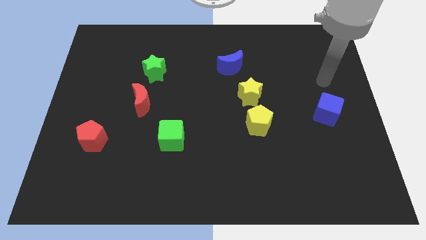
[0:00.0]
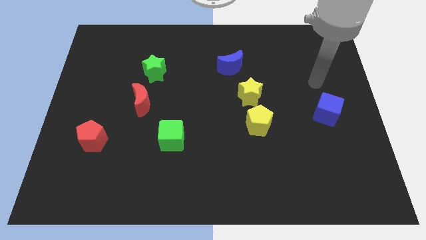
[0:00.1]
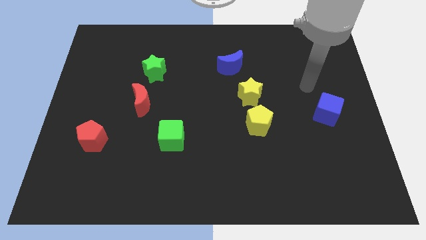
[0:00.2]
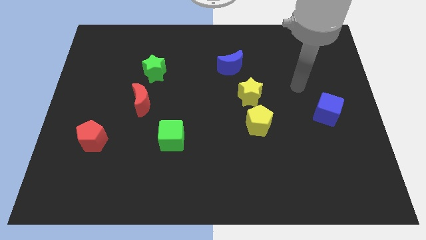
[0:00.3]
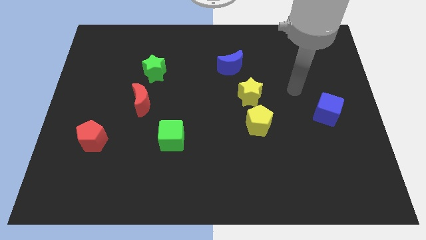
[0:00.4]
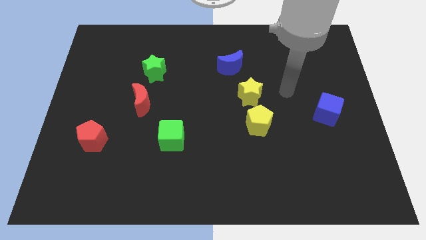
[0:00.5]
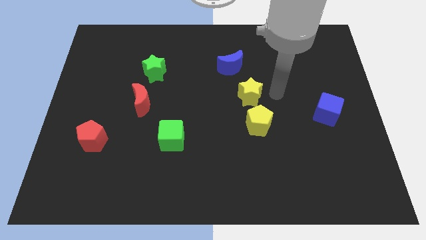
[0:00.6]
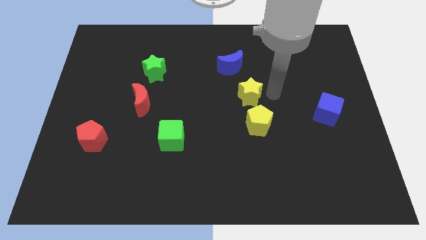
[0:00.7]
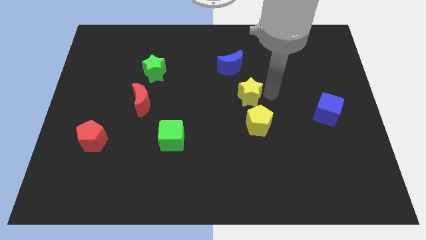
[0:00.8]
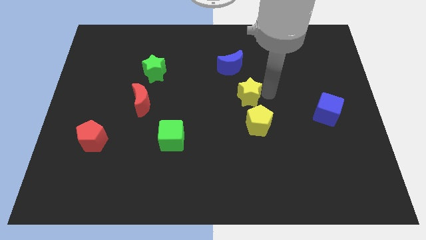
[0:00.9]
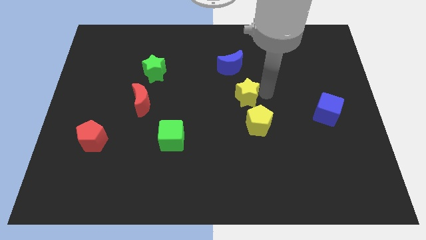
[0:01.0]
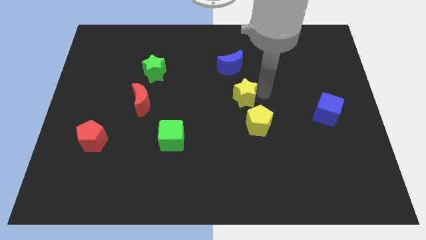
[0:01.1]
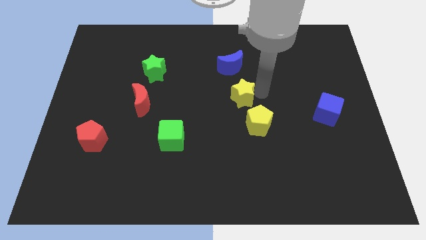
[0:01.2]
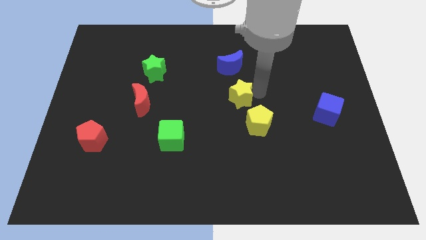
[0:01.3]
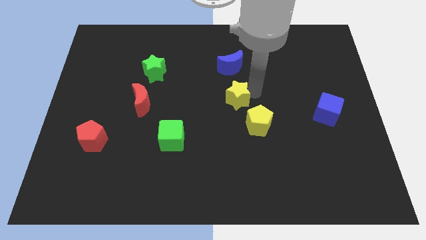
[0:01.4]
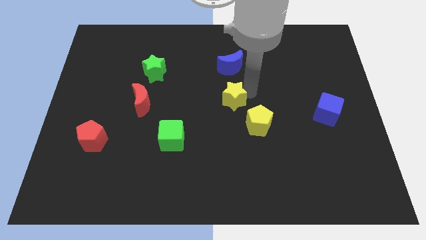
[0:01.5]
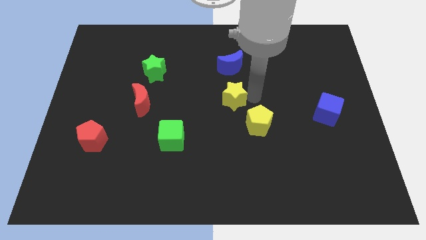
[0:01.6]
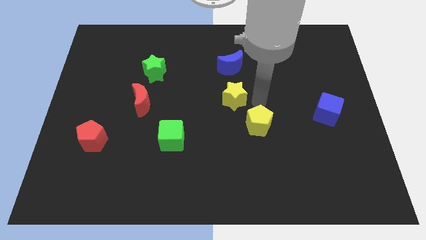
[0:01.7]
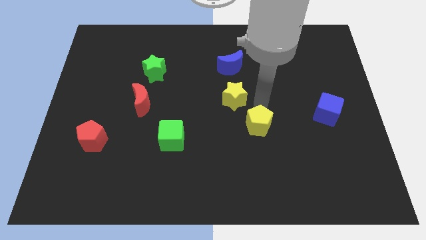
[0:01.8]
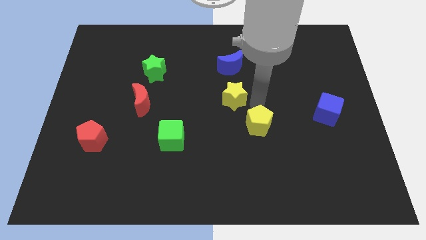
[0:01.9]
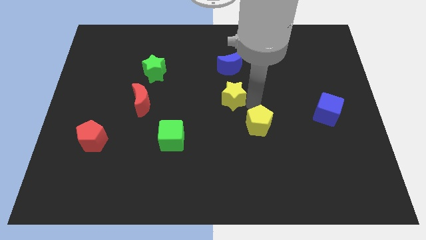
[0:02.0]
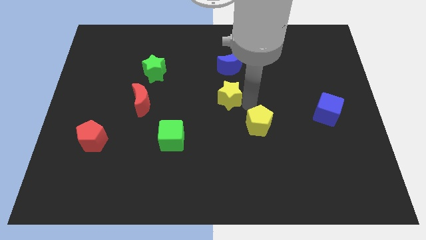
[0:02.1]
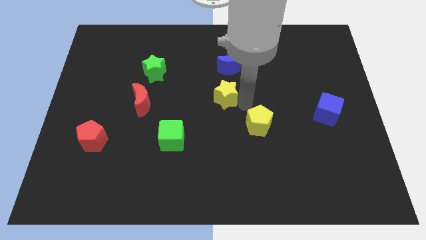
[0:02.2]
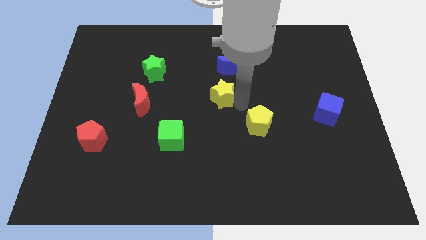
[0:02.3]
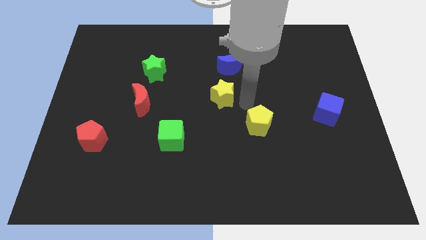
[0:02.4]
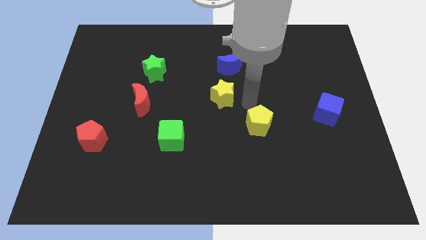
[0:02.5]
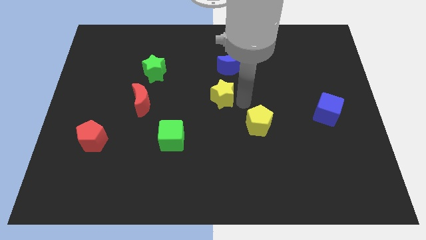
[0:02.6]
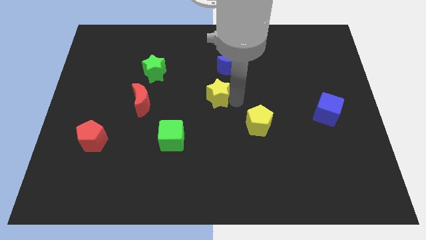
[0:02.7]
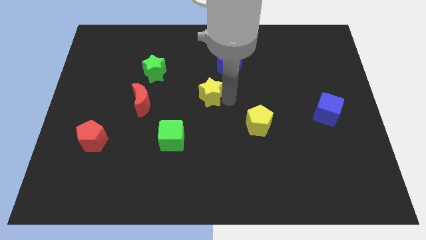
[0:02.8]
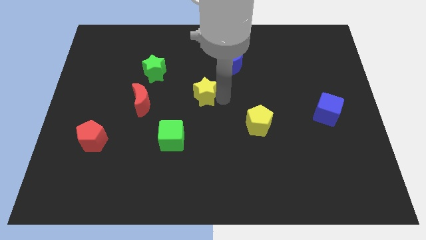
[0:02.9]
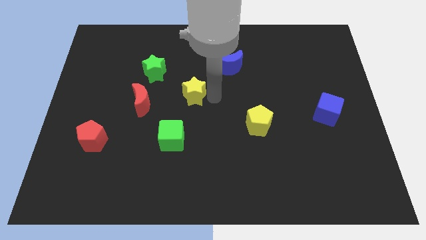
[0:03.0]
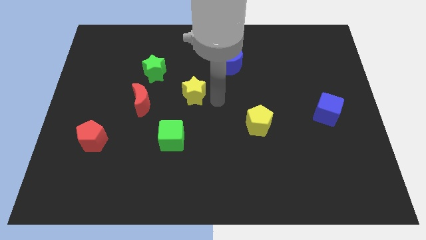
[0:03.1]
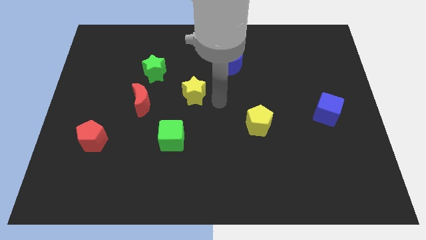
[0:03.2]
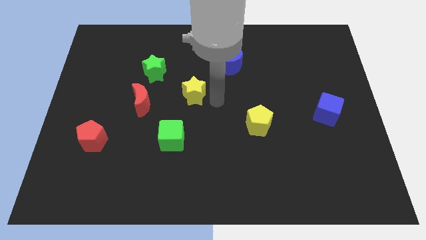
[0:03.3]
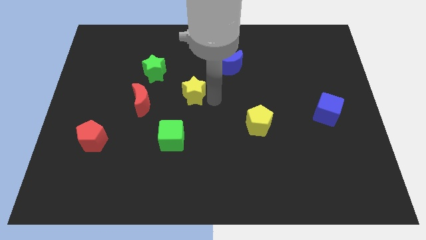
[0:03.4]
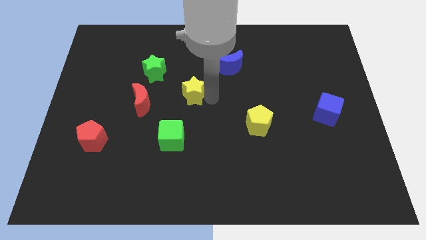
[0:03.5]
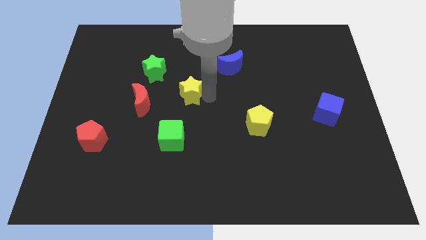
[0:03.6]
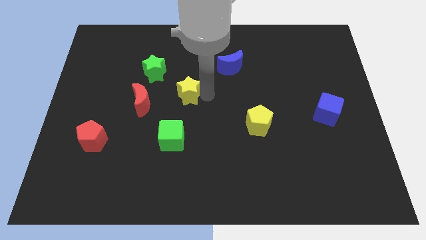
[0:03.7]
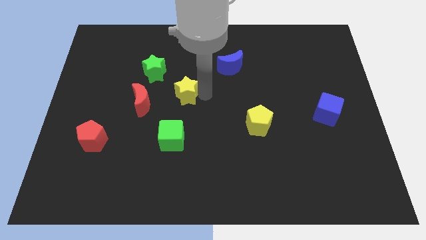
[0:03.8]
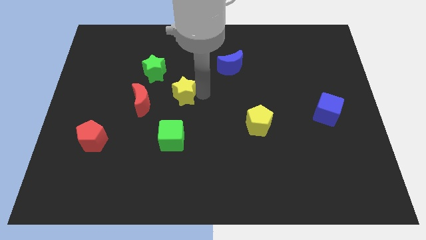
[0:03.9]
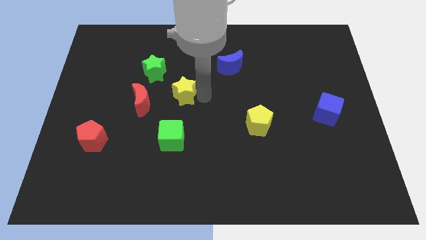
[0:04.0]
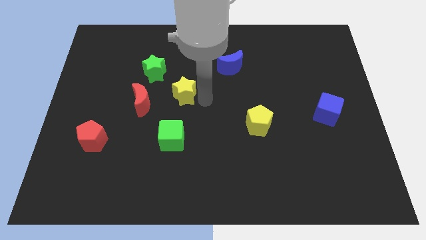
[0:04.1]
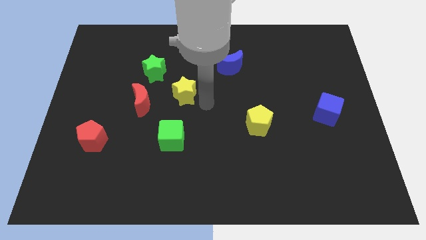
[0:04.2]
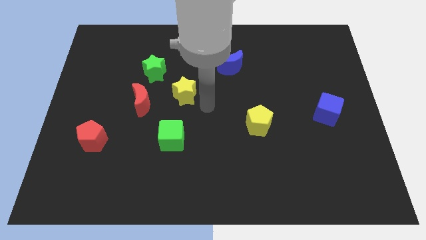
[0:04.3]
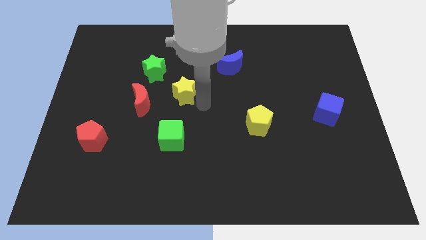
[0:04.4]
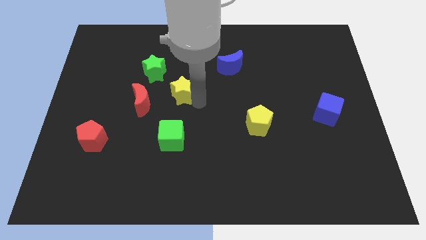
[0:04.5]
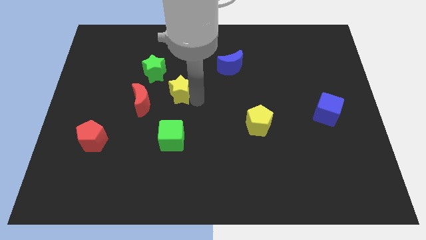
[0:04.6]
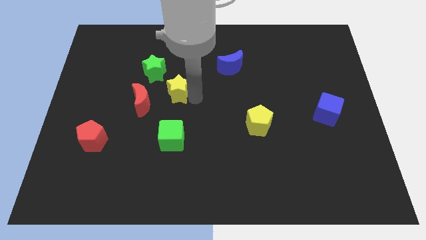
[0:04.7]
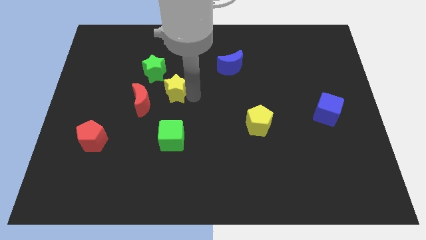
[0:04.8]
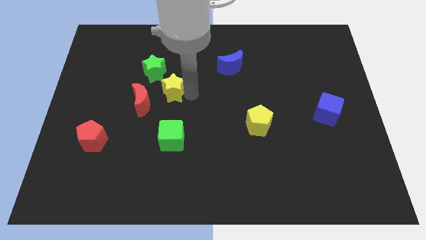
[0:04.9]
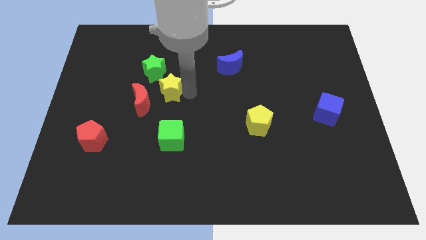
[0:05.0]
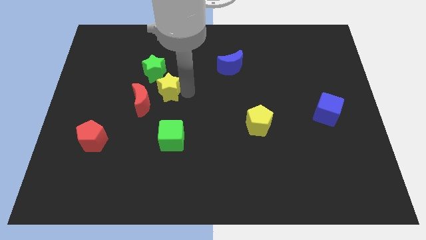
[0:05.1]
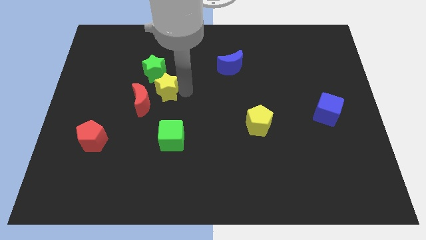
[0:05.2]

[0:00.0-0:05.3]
push the yellow star to the left

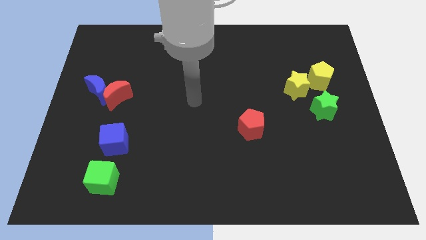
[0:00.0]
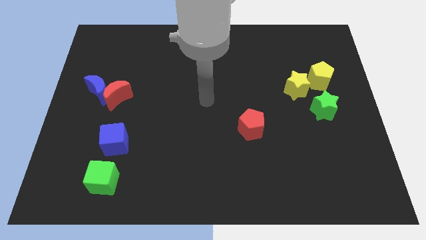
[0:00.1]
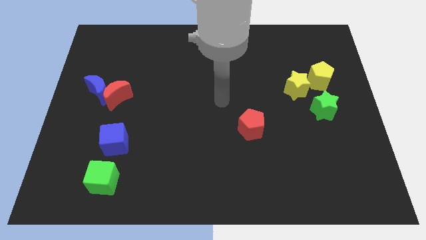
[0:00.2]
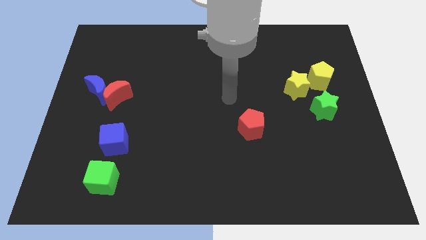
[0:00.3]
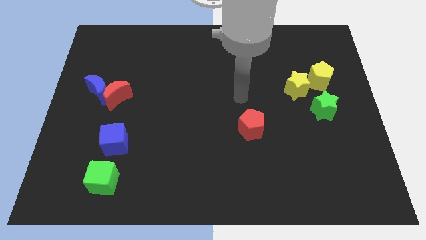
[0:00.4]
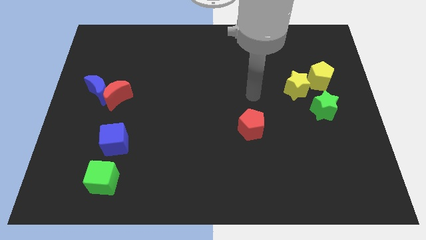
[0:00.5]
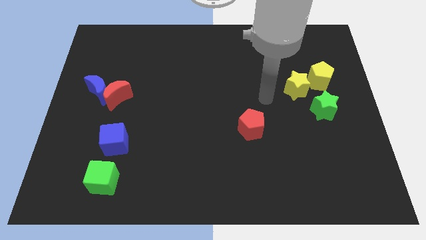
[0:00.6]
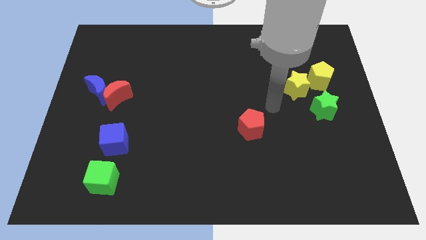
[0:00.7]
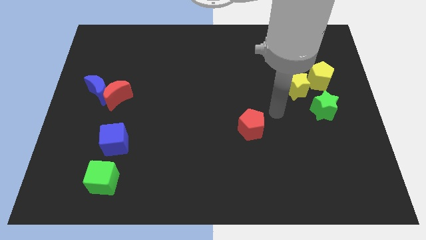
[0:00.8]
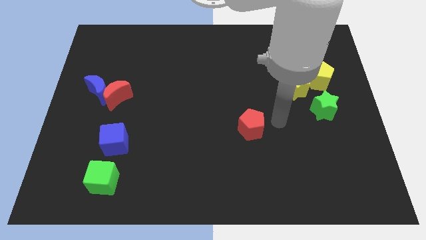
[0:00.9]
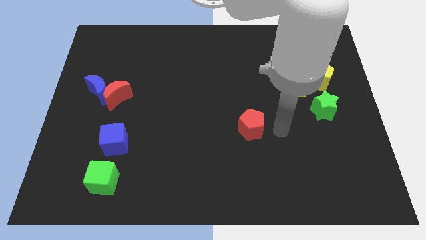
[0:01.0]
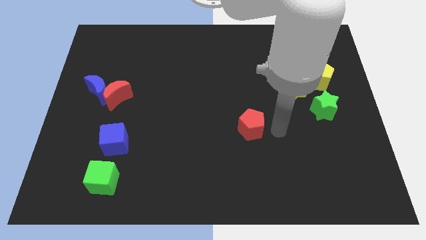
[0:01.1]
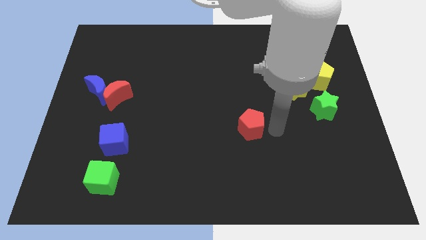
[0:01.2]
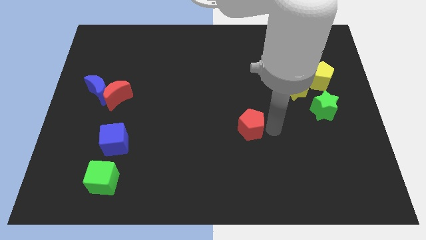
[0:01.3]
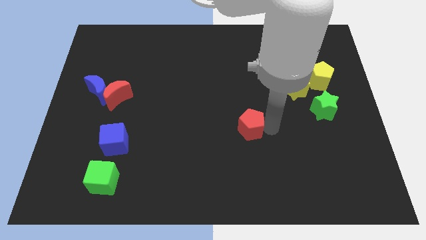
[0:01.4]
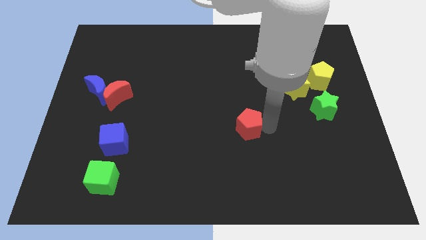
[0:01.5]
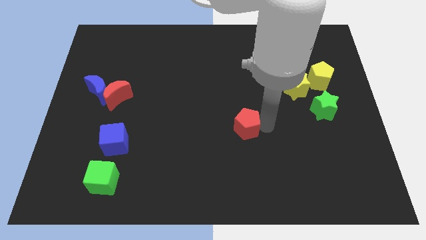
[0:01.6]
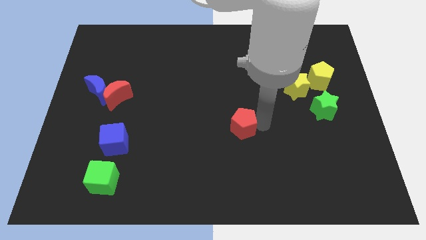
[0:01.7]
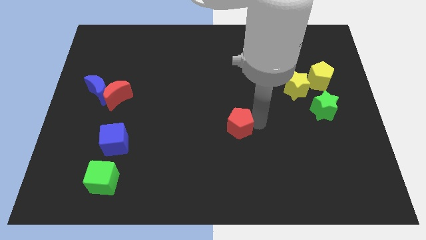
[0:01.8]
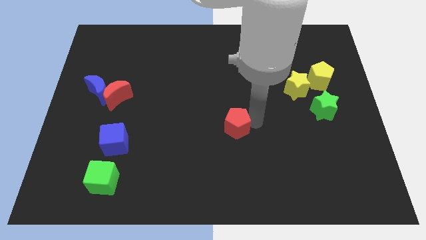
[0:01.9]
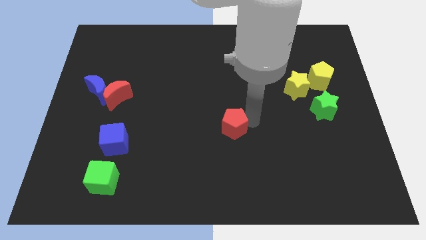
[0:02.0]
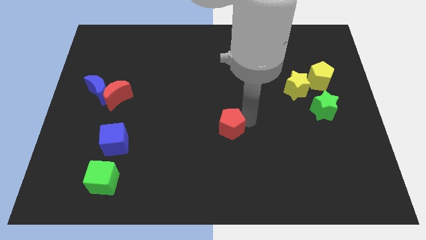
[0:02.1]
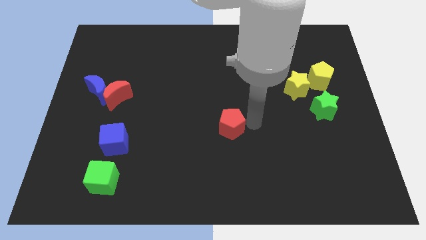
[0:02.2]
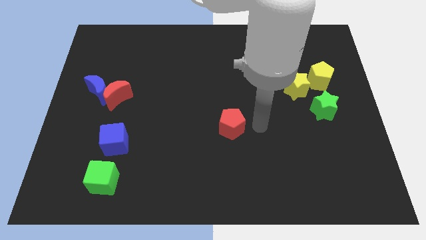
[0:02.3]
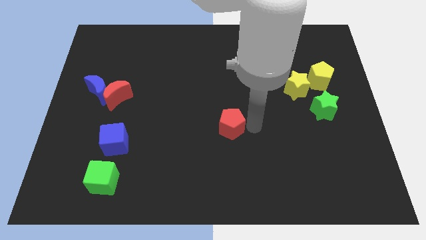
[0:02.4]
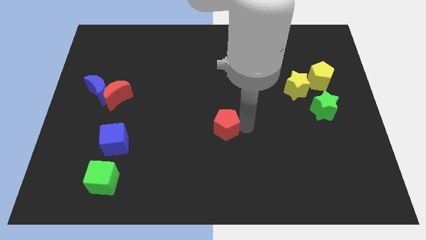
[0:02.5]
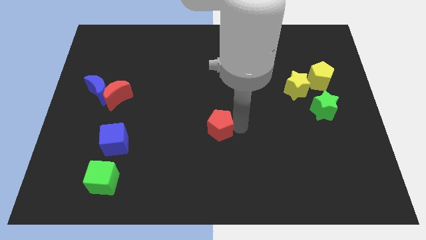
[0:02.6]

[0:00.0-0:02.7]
move the red pentagon somewhat to the left
